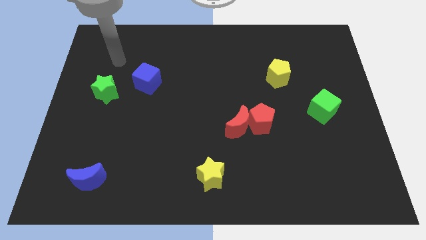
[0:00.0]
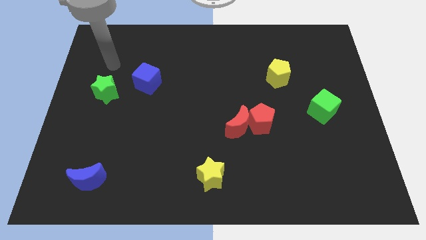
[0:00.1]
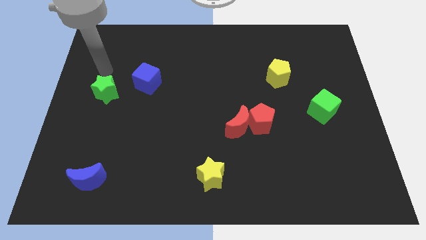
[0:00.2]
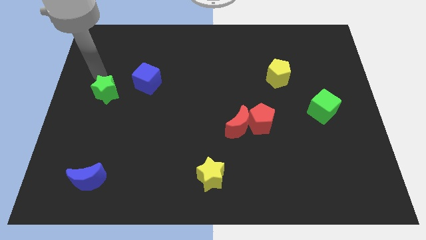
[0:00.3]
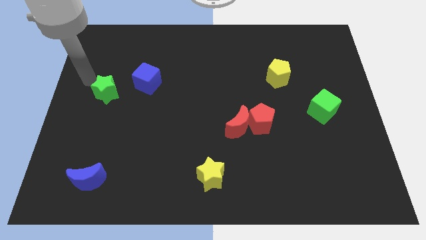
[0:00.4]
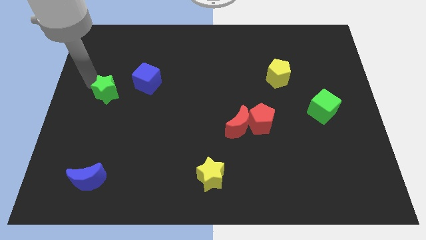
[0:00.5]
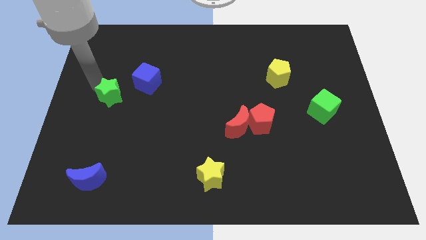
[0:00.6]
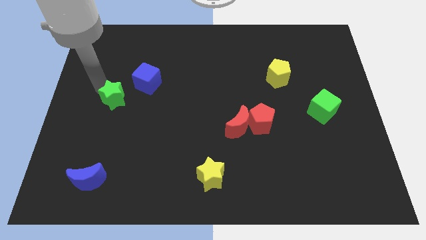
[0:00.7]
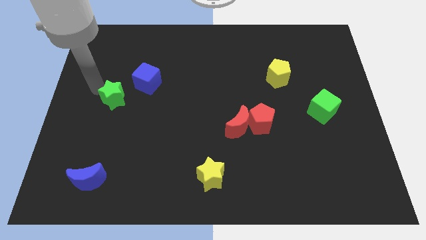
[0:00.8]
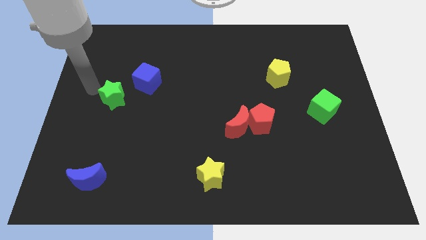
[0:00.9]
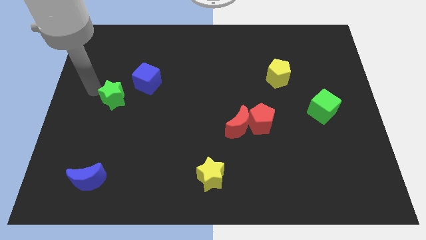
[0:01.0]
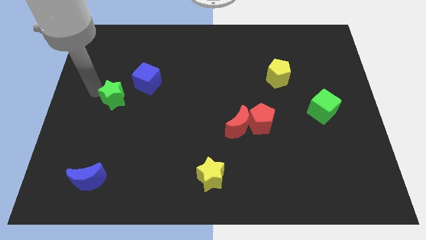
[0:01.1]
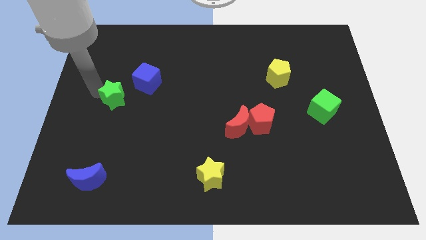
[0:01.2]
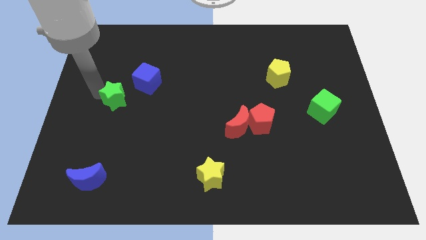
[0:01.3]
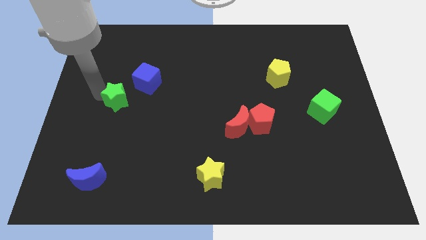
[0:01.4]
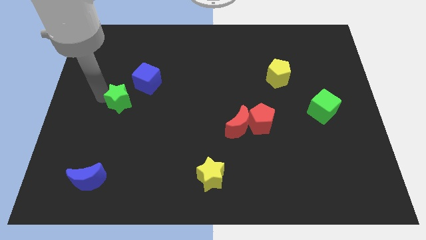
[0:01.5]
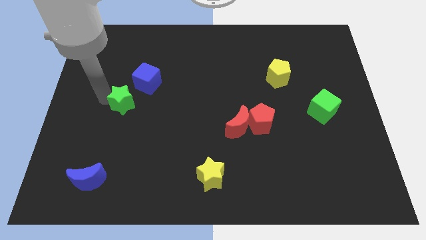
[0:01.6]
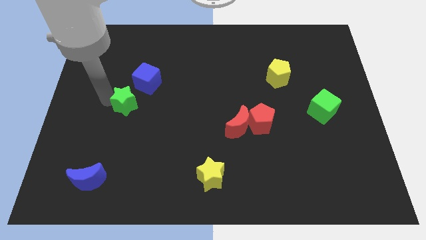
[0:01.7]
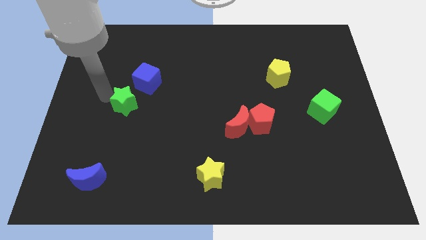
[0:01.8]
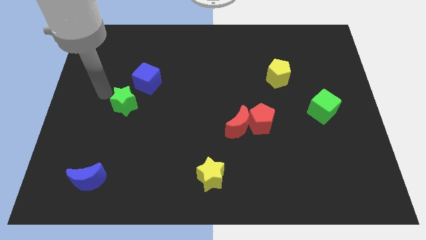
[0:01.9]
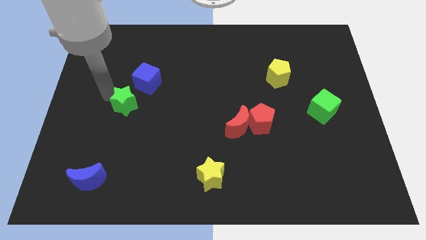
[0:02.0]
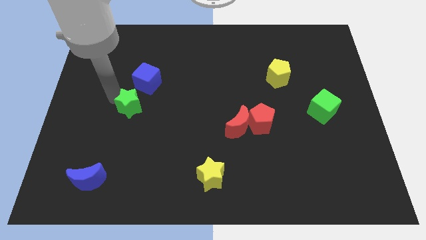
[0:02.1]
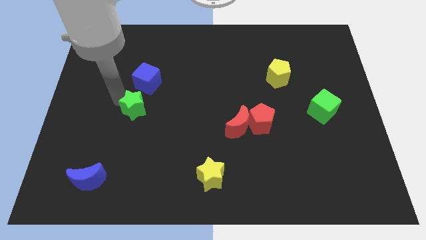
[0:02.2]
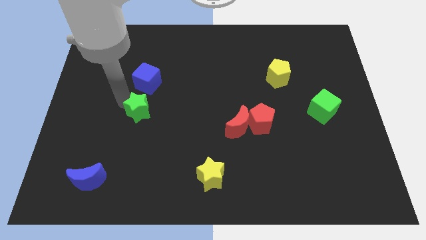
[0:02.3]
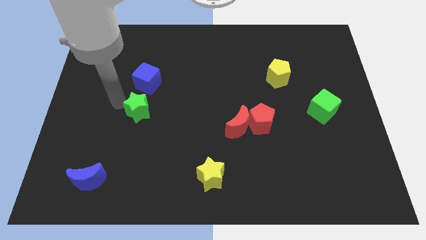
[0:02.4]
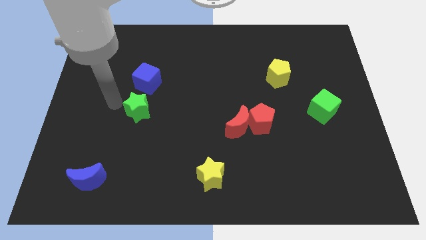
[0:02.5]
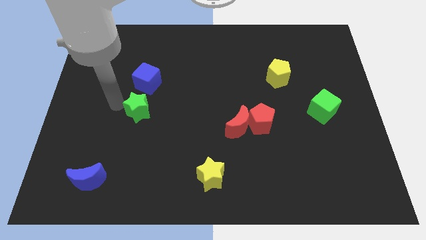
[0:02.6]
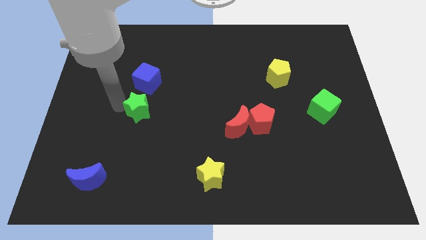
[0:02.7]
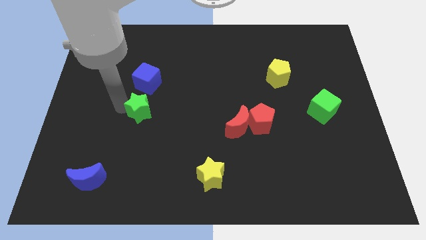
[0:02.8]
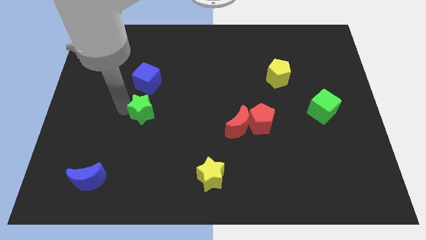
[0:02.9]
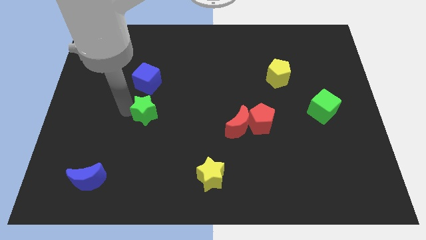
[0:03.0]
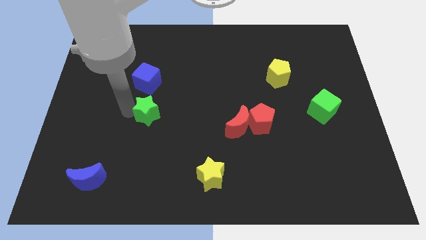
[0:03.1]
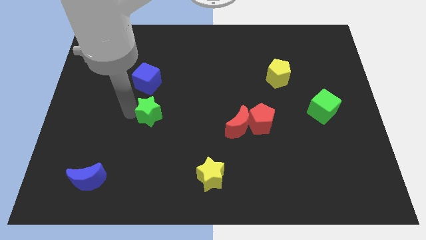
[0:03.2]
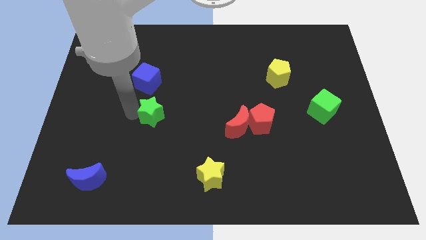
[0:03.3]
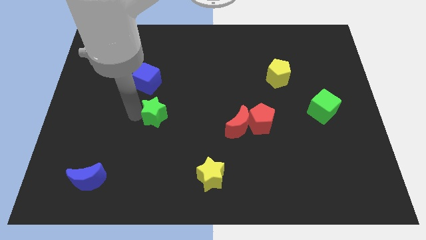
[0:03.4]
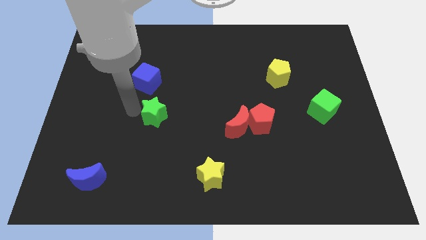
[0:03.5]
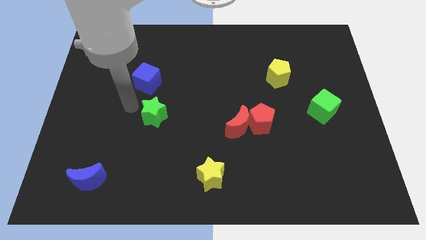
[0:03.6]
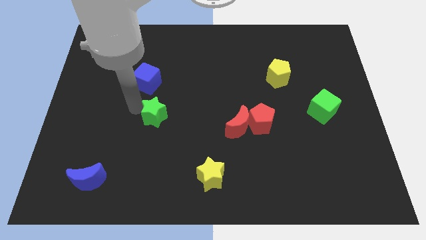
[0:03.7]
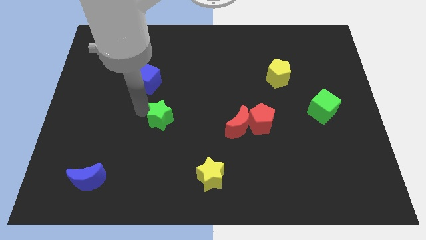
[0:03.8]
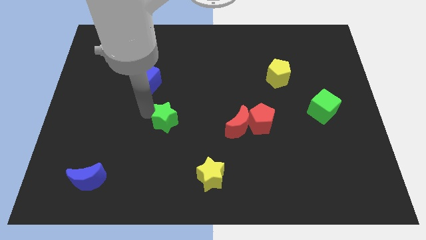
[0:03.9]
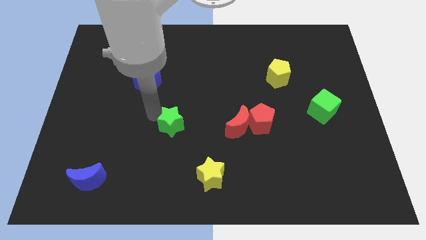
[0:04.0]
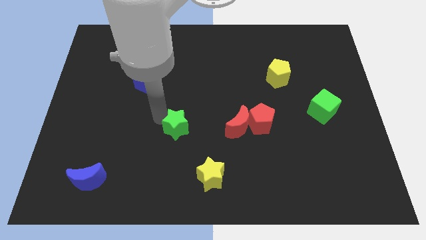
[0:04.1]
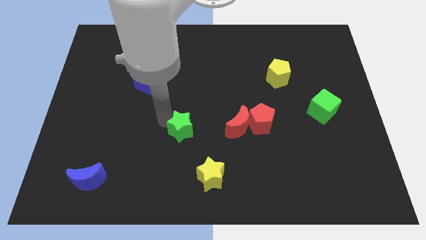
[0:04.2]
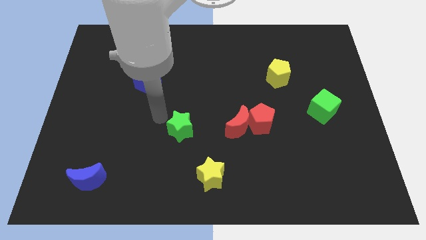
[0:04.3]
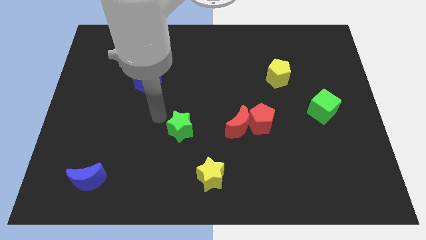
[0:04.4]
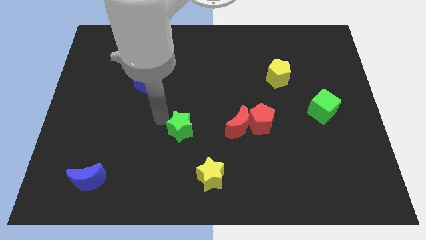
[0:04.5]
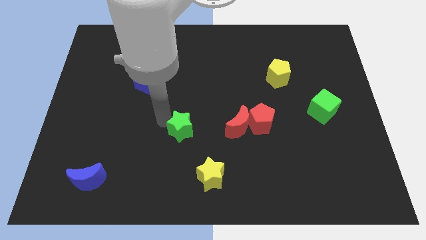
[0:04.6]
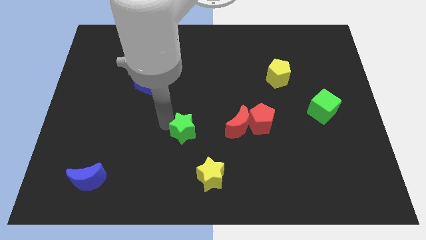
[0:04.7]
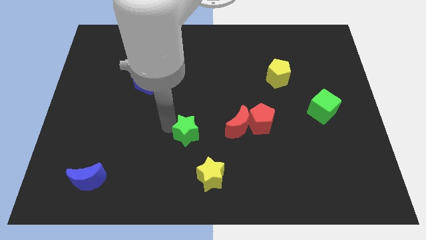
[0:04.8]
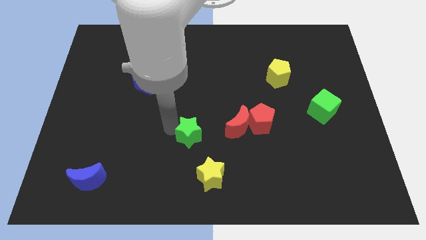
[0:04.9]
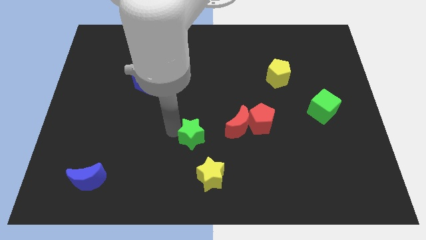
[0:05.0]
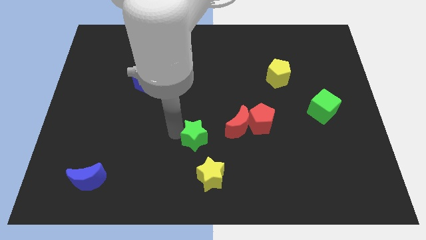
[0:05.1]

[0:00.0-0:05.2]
slide the green star to the bottom left of the red moon

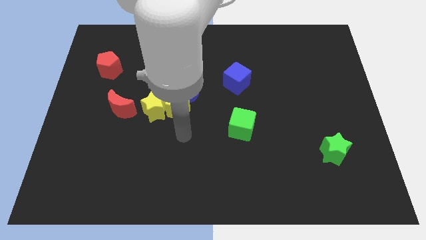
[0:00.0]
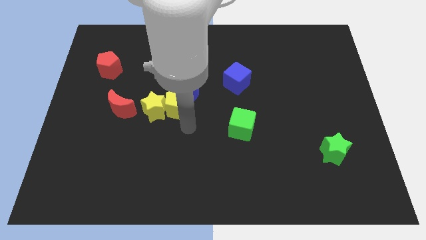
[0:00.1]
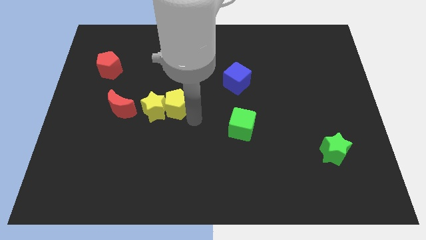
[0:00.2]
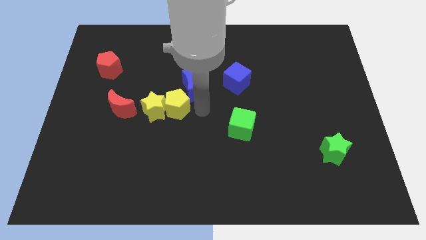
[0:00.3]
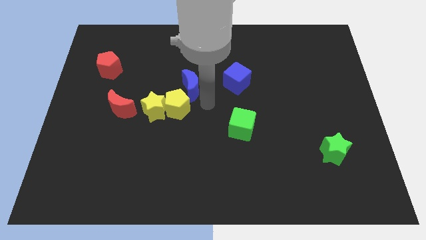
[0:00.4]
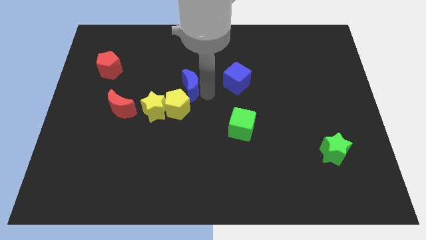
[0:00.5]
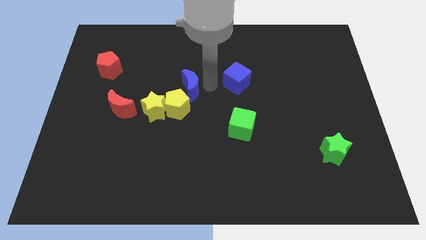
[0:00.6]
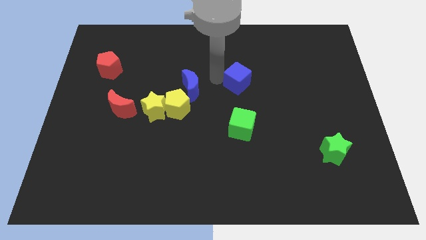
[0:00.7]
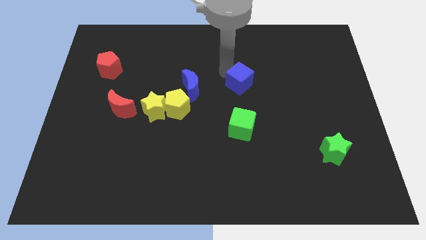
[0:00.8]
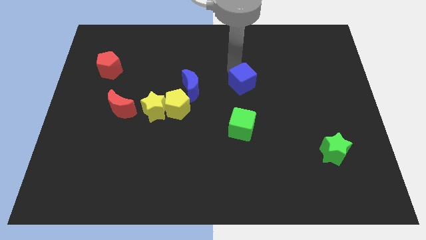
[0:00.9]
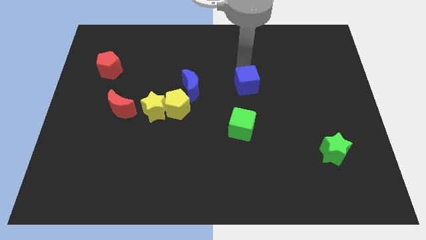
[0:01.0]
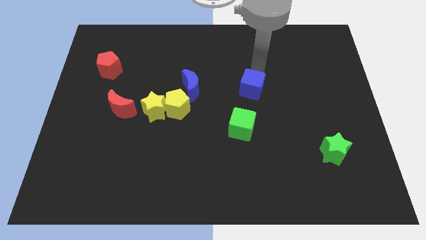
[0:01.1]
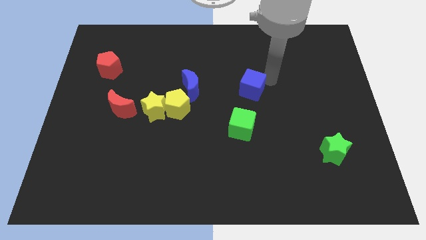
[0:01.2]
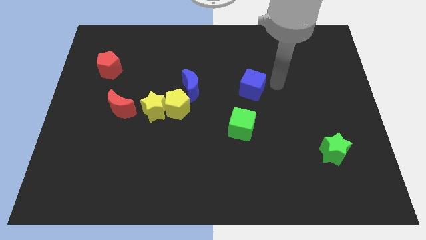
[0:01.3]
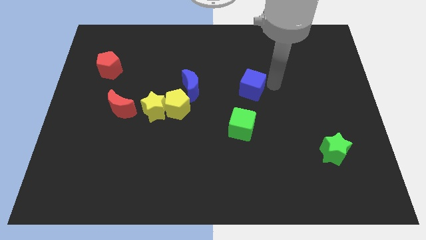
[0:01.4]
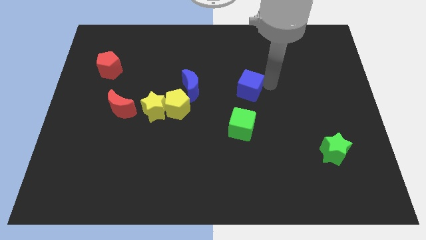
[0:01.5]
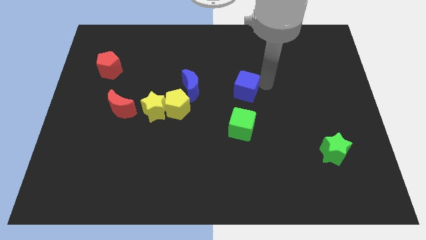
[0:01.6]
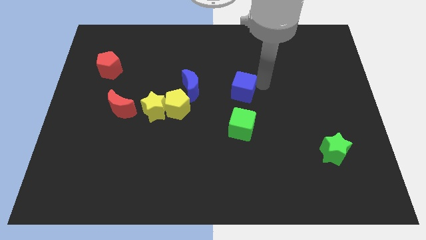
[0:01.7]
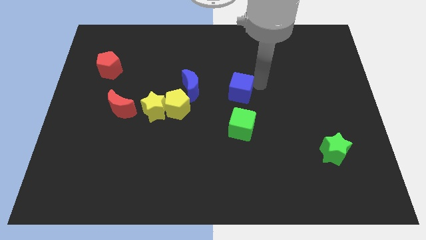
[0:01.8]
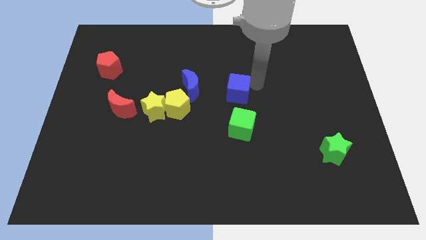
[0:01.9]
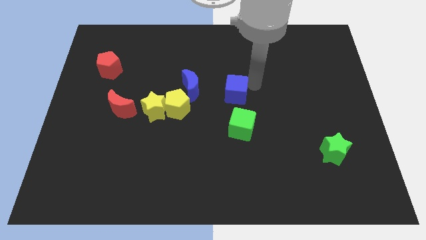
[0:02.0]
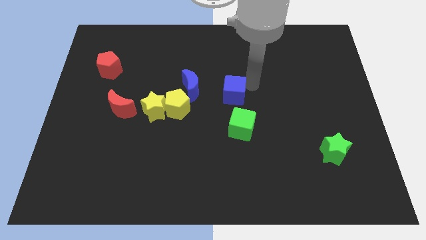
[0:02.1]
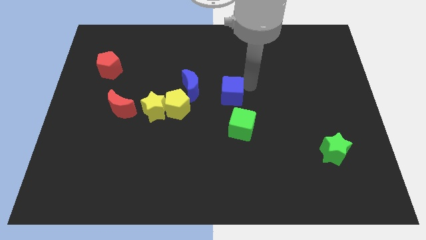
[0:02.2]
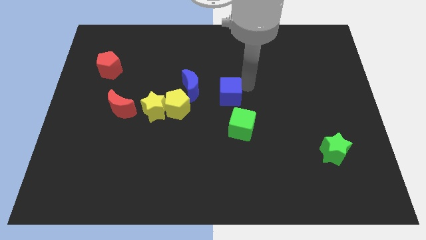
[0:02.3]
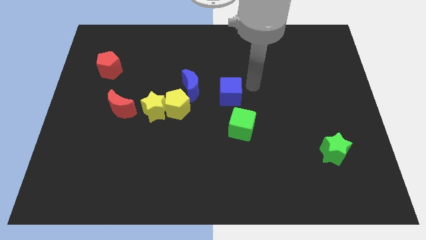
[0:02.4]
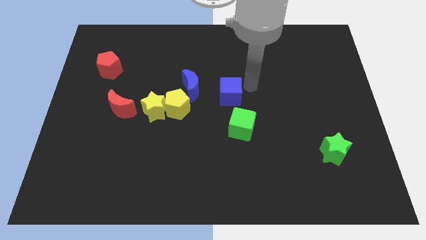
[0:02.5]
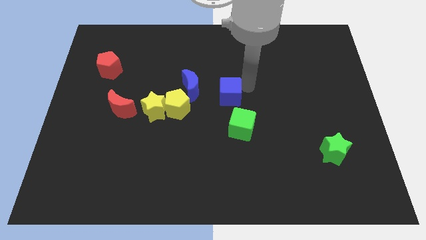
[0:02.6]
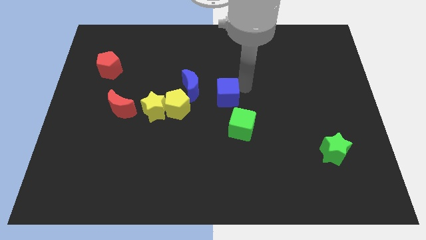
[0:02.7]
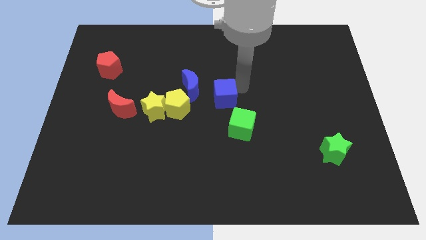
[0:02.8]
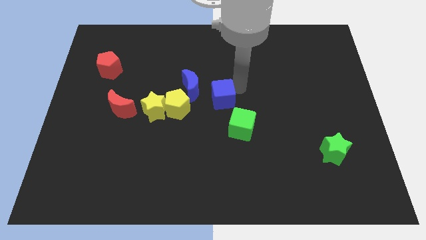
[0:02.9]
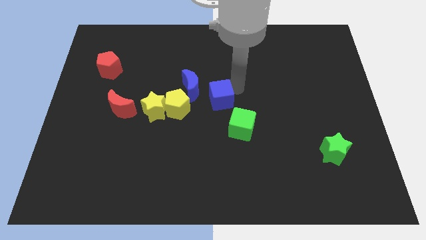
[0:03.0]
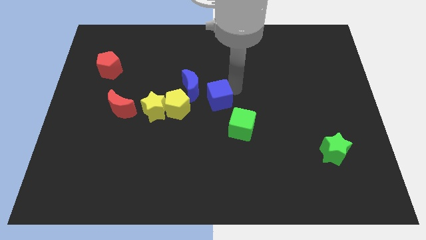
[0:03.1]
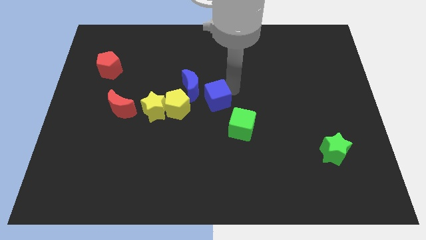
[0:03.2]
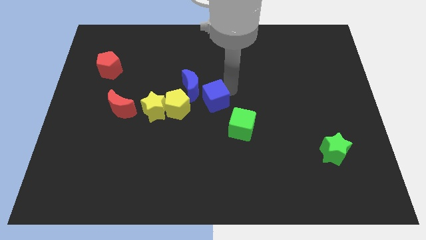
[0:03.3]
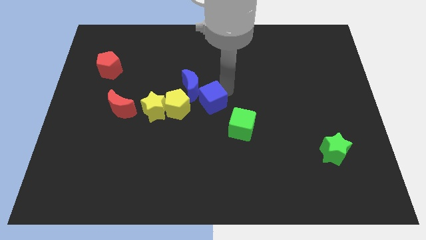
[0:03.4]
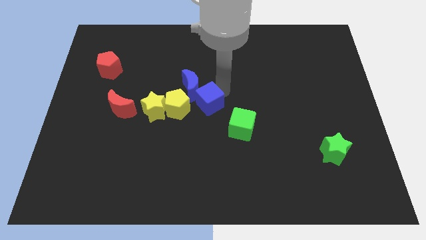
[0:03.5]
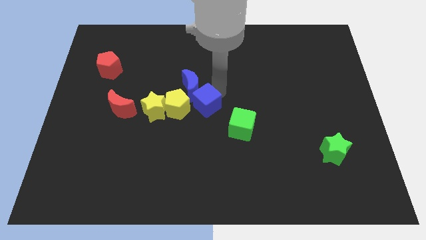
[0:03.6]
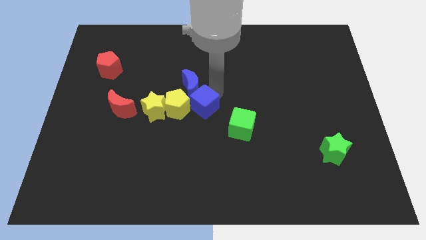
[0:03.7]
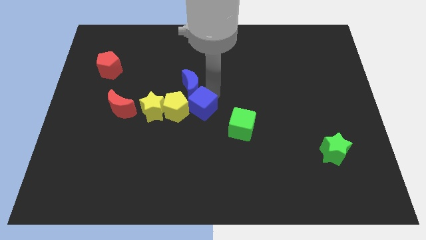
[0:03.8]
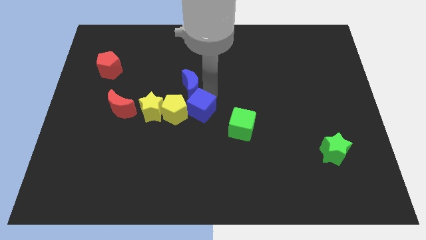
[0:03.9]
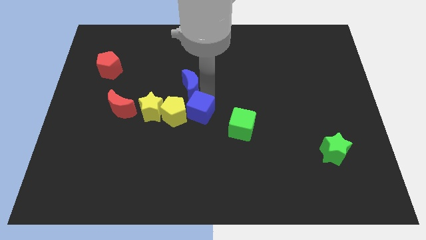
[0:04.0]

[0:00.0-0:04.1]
push the blue cube to the left side of the green cube
